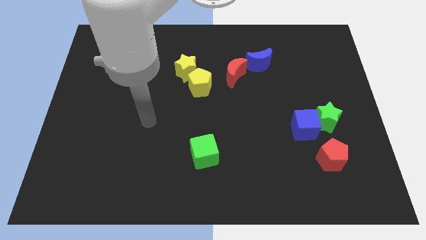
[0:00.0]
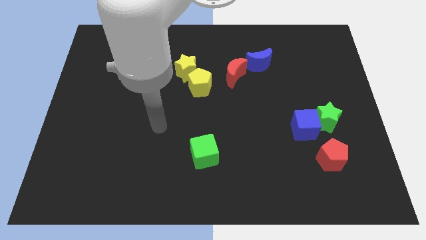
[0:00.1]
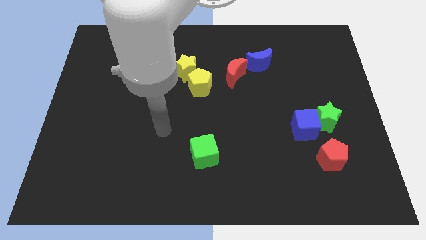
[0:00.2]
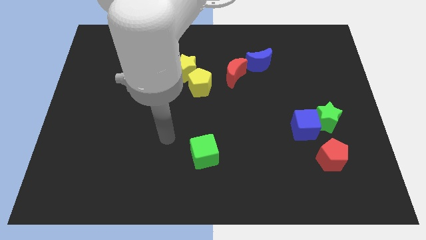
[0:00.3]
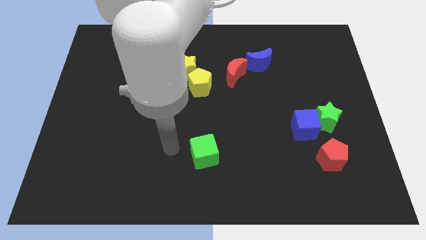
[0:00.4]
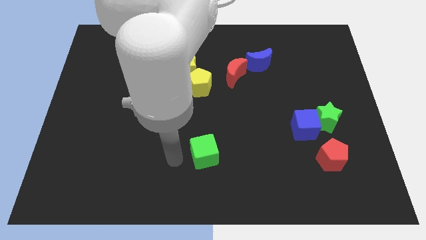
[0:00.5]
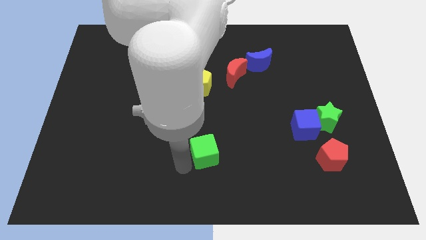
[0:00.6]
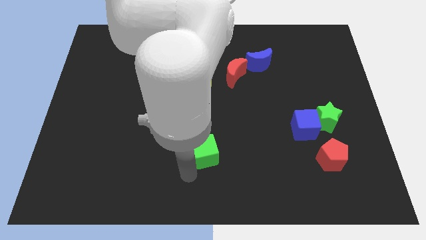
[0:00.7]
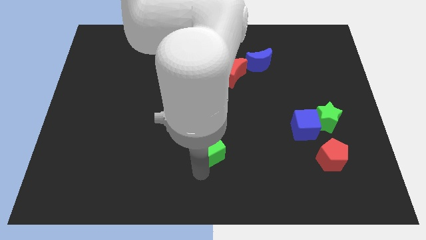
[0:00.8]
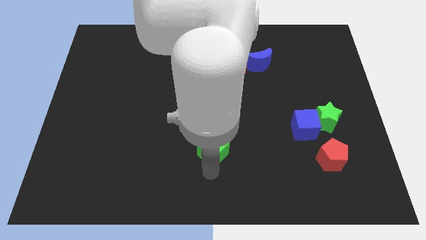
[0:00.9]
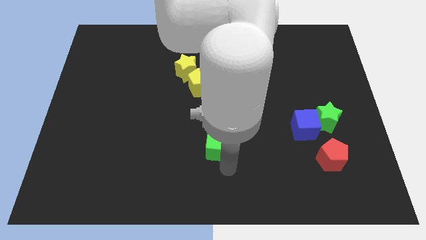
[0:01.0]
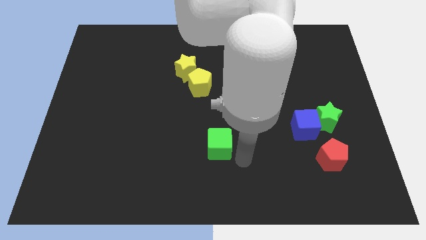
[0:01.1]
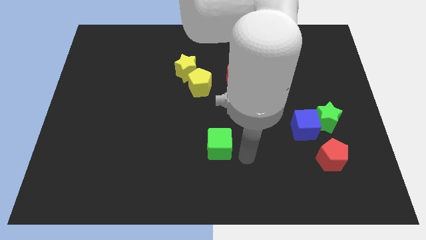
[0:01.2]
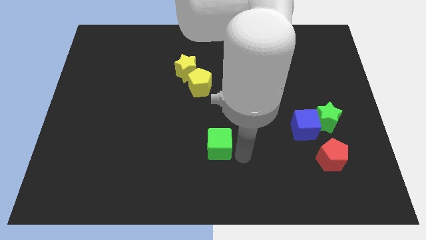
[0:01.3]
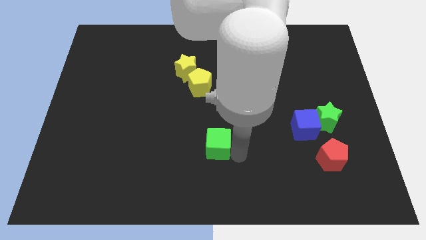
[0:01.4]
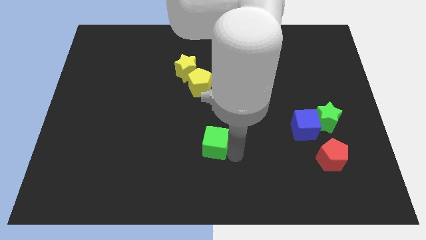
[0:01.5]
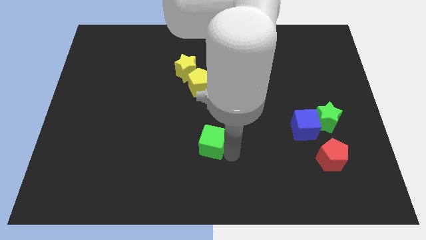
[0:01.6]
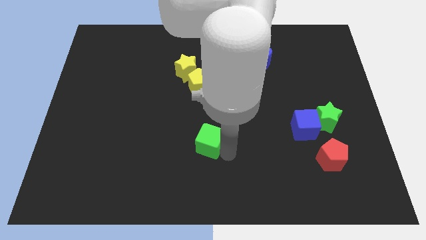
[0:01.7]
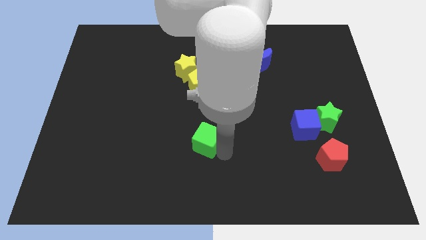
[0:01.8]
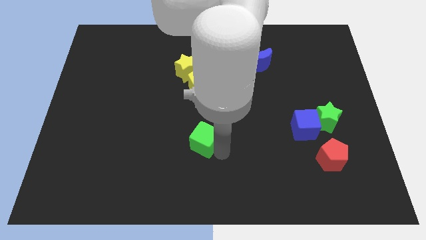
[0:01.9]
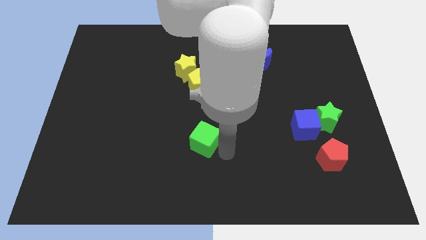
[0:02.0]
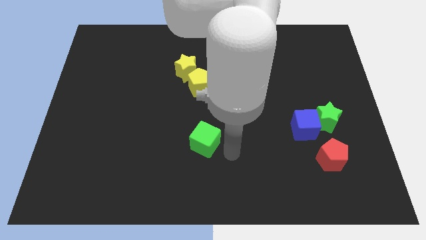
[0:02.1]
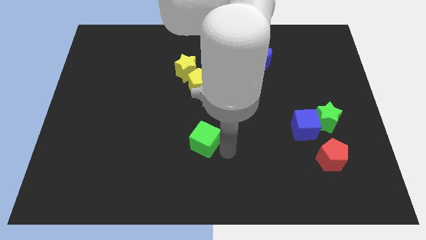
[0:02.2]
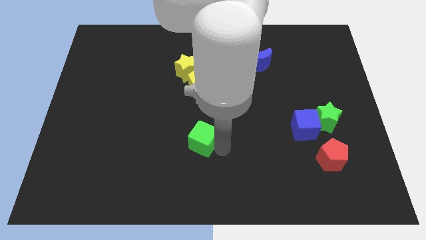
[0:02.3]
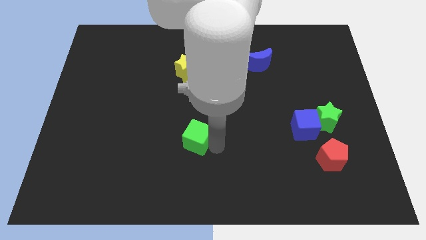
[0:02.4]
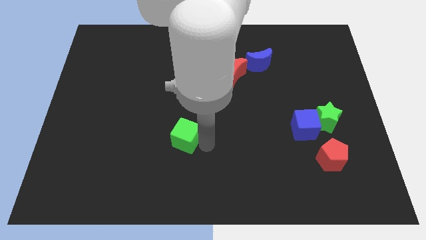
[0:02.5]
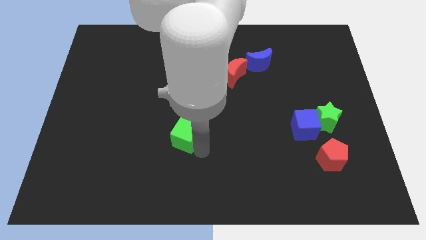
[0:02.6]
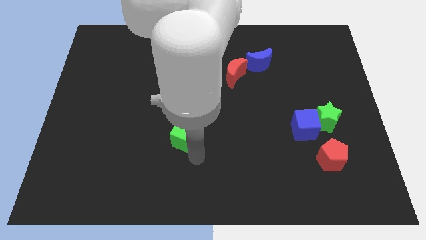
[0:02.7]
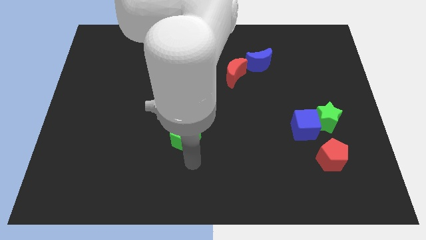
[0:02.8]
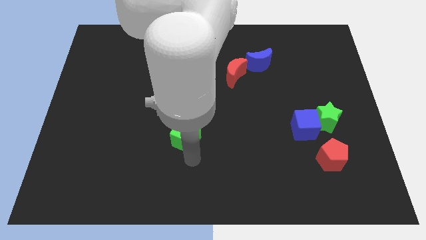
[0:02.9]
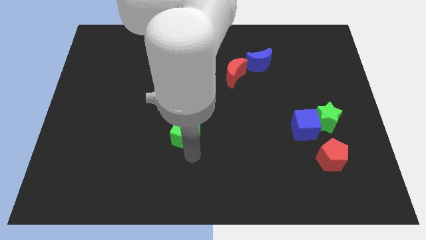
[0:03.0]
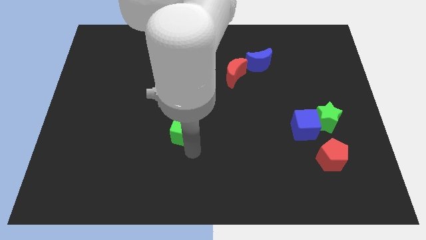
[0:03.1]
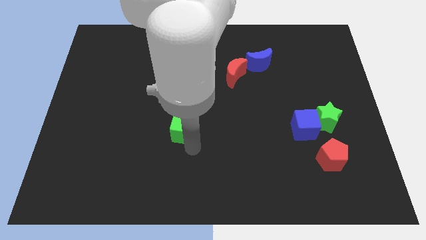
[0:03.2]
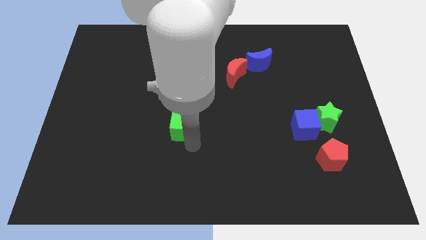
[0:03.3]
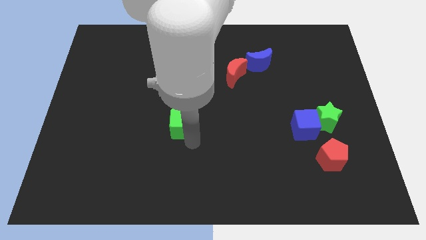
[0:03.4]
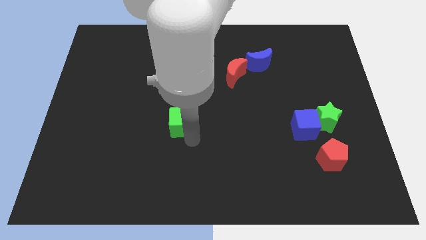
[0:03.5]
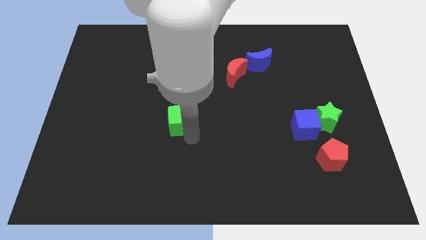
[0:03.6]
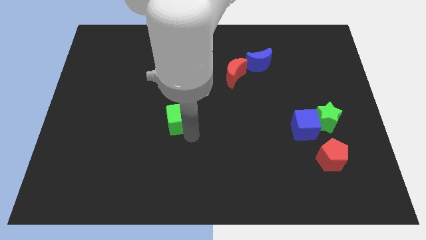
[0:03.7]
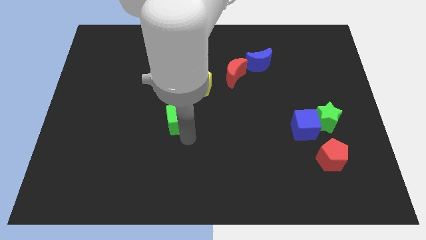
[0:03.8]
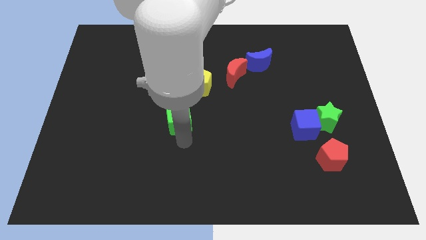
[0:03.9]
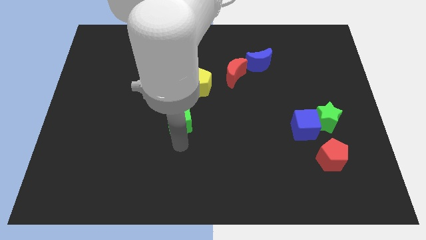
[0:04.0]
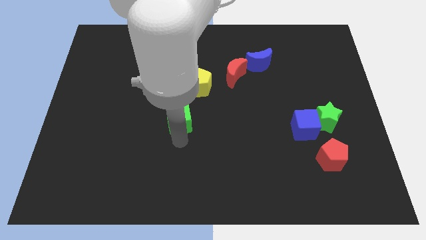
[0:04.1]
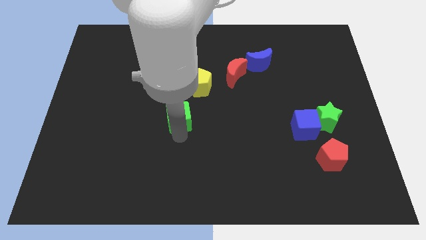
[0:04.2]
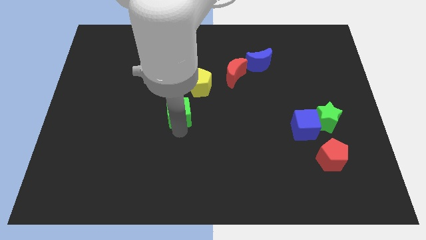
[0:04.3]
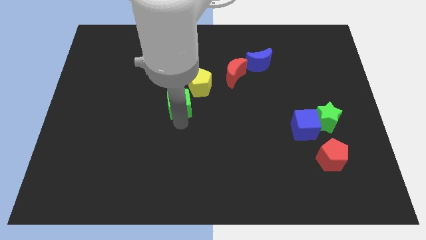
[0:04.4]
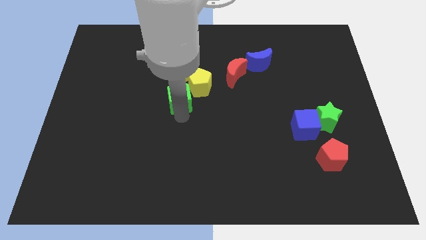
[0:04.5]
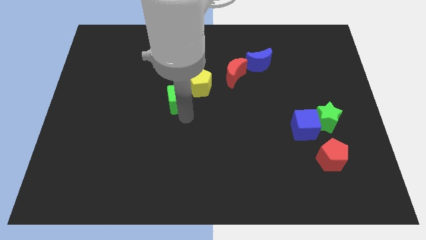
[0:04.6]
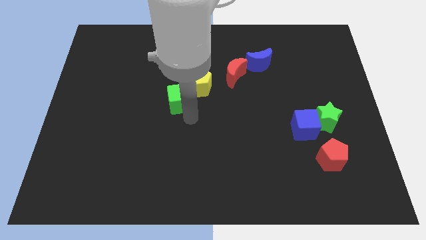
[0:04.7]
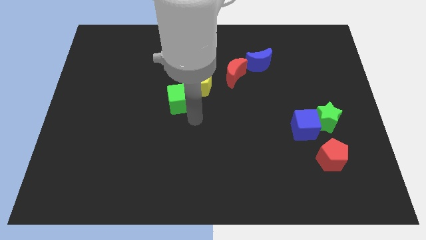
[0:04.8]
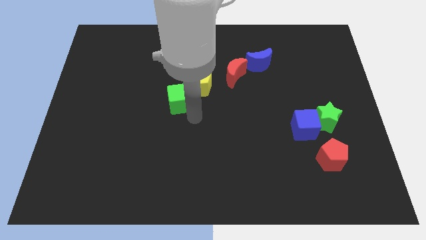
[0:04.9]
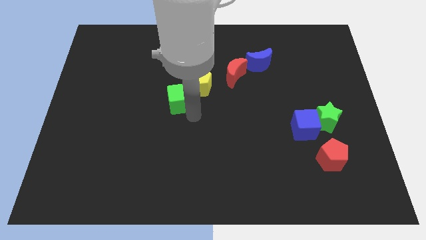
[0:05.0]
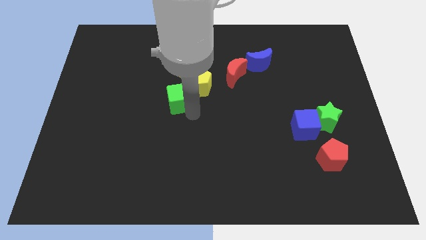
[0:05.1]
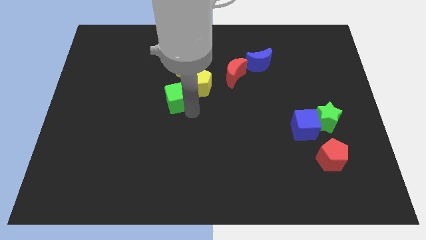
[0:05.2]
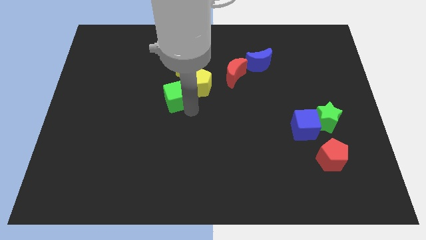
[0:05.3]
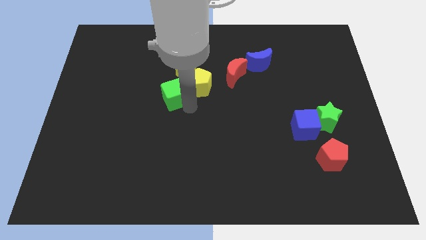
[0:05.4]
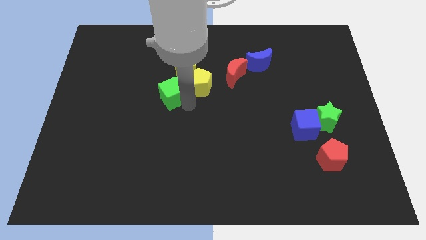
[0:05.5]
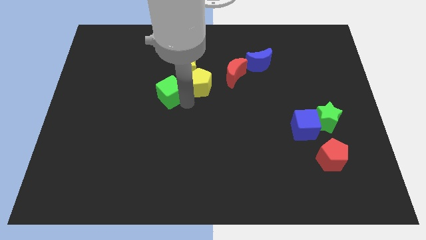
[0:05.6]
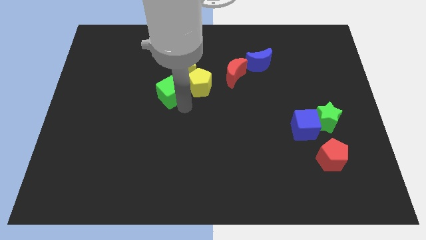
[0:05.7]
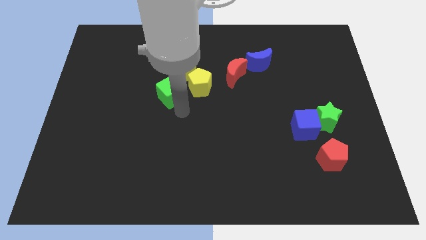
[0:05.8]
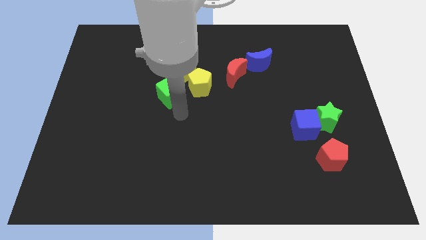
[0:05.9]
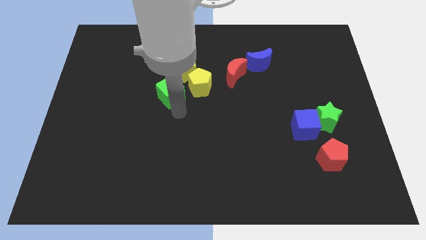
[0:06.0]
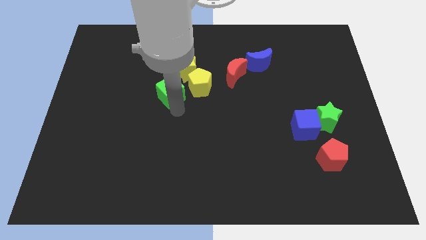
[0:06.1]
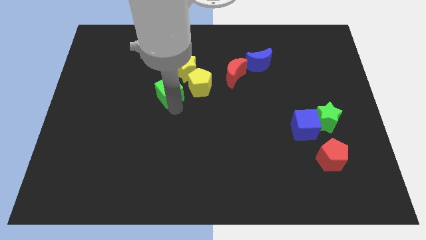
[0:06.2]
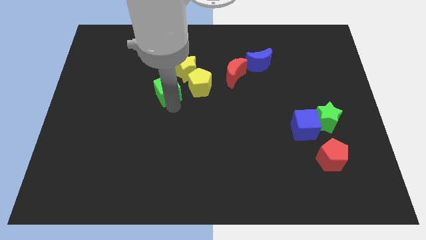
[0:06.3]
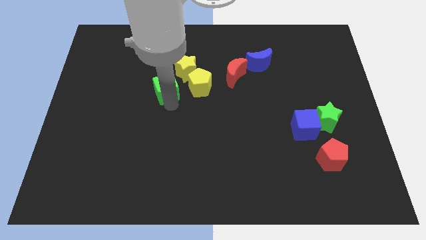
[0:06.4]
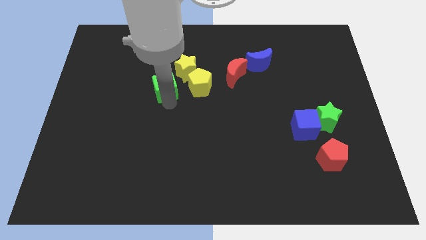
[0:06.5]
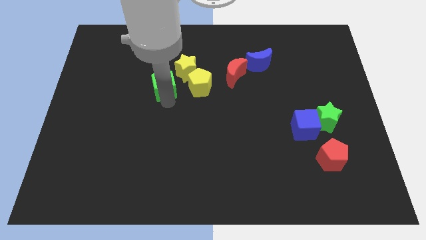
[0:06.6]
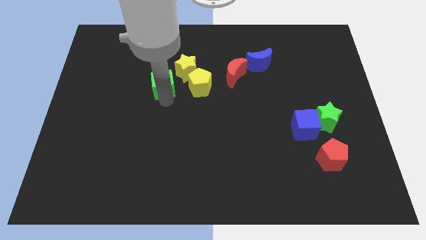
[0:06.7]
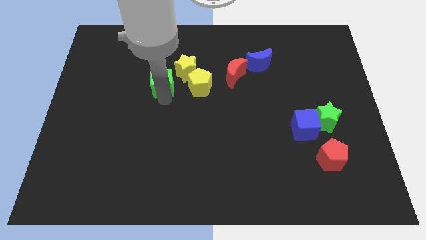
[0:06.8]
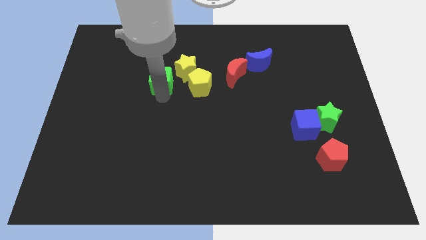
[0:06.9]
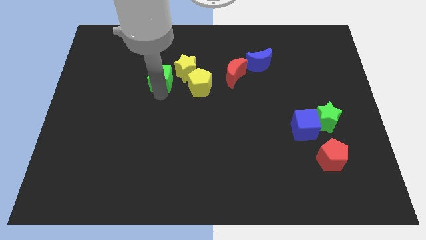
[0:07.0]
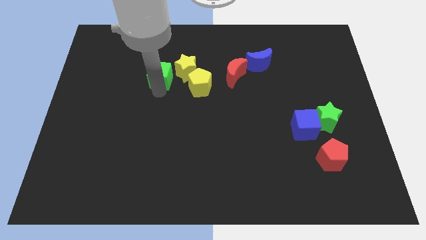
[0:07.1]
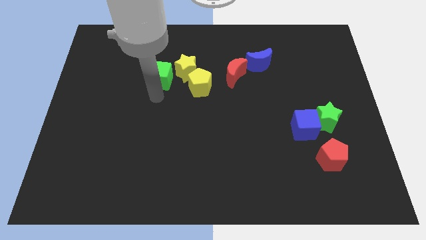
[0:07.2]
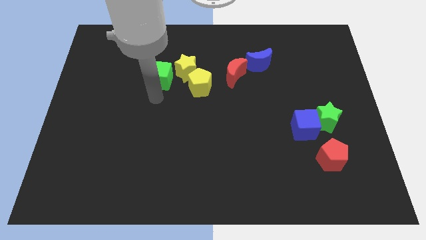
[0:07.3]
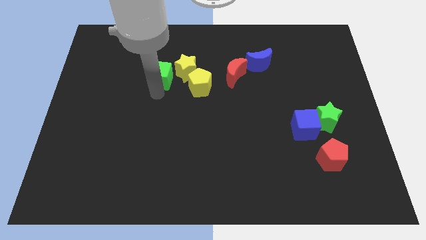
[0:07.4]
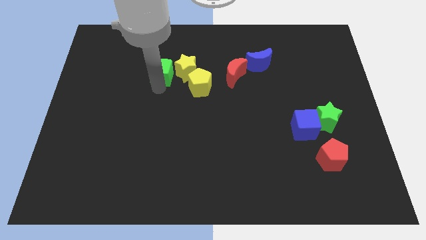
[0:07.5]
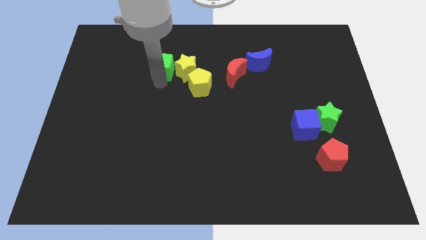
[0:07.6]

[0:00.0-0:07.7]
slide the green cube to the top left side of the yellow star
